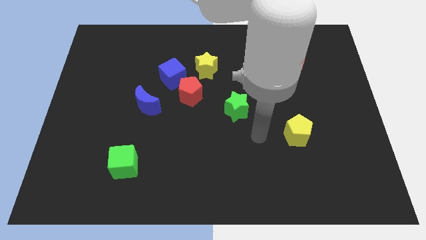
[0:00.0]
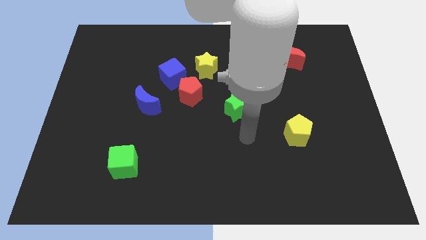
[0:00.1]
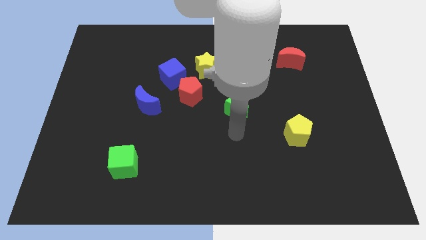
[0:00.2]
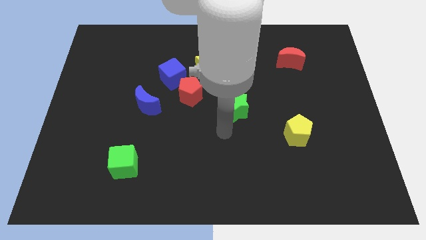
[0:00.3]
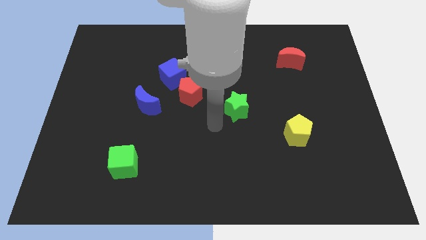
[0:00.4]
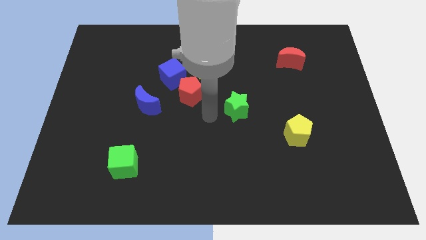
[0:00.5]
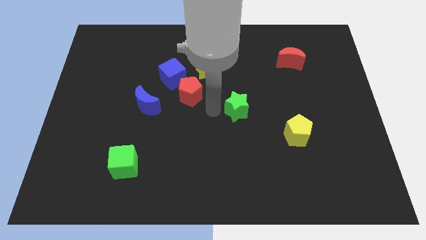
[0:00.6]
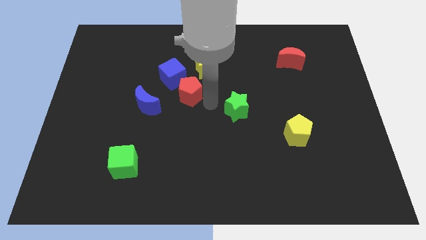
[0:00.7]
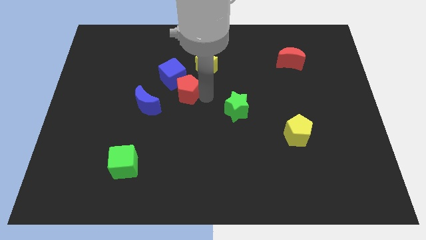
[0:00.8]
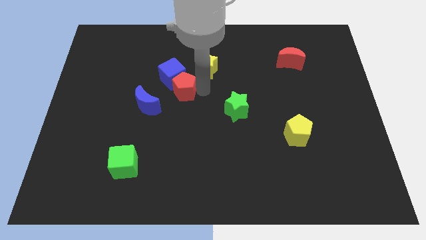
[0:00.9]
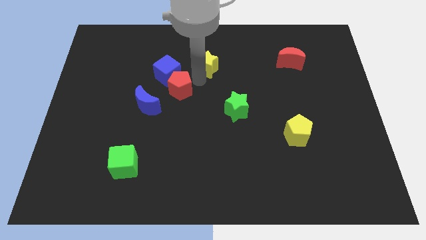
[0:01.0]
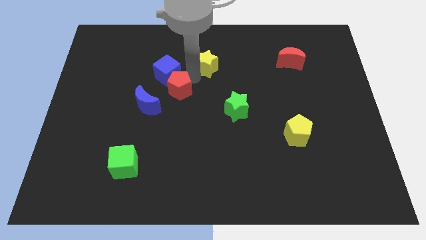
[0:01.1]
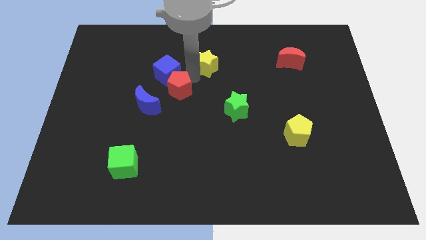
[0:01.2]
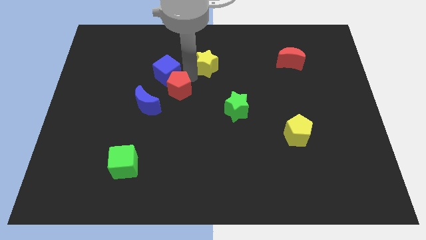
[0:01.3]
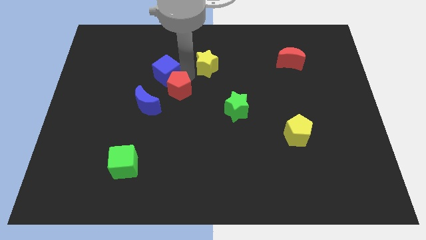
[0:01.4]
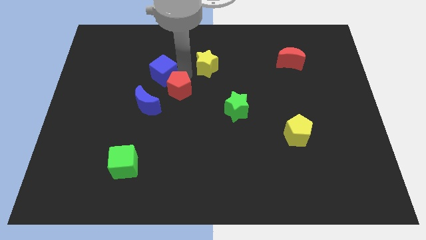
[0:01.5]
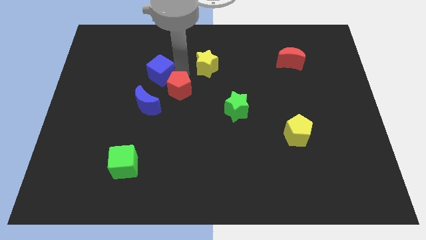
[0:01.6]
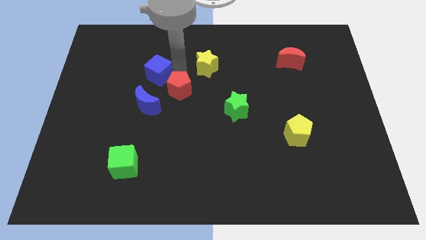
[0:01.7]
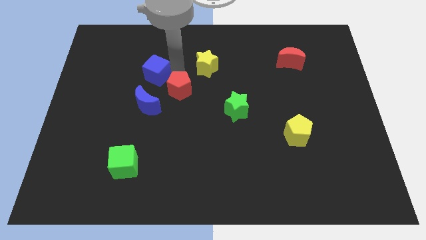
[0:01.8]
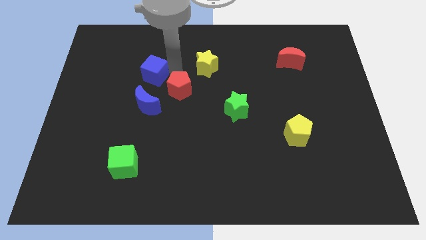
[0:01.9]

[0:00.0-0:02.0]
pull the blue cube apart from the red pentagon and yellow star

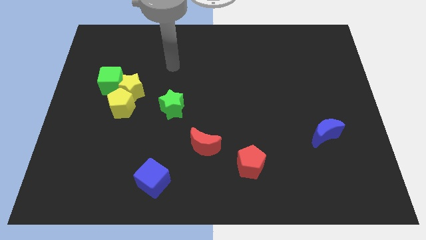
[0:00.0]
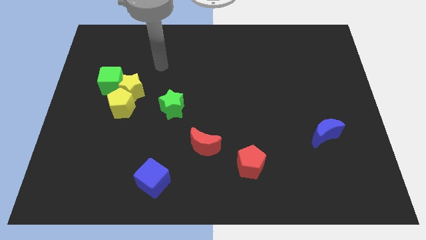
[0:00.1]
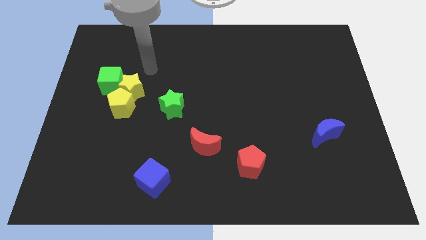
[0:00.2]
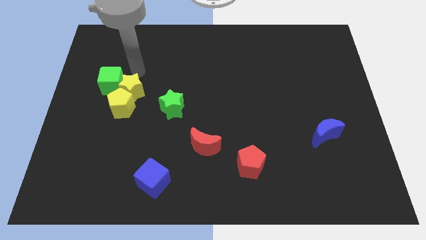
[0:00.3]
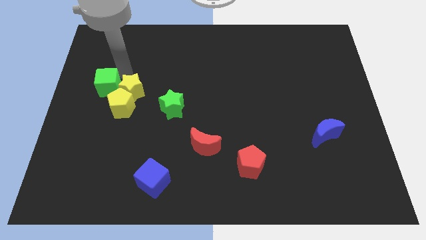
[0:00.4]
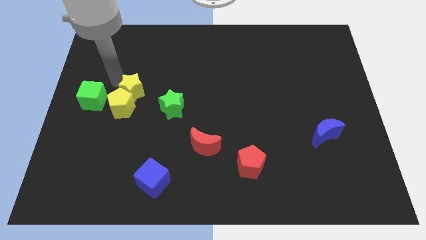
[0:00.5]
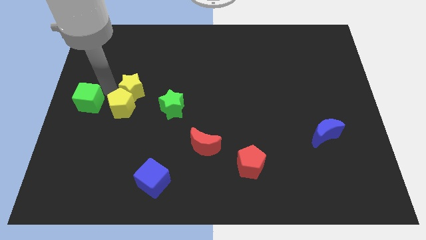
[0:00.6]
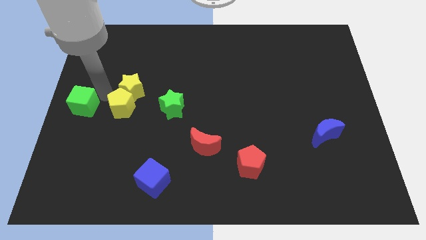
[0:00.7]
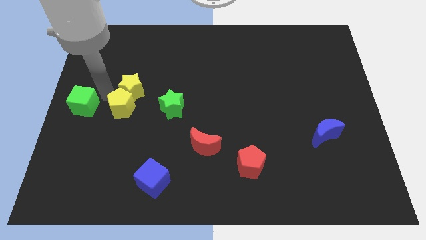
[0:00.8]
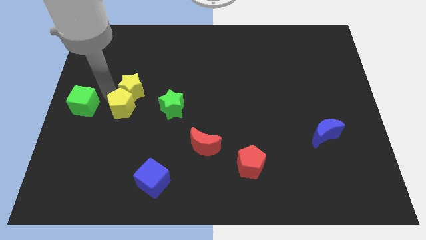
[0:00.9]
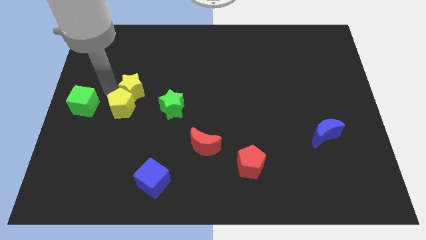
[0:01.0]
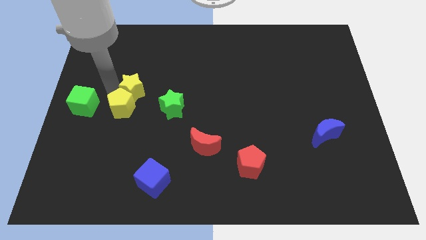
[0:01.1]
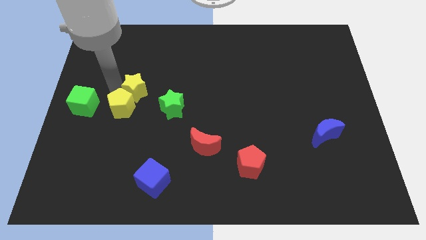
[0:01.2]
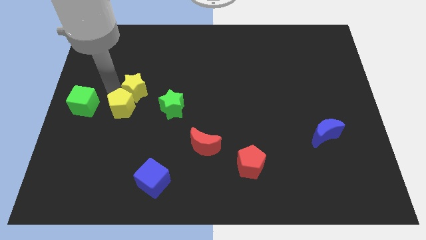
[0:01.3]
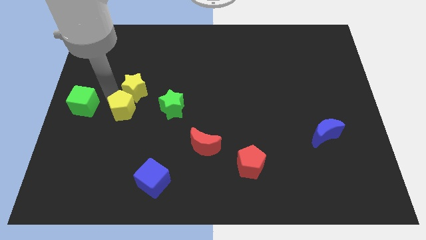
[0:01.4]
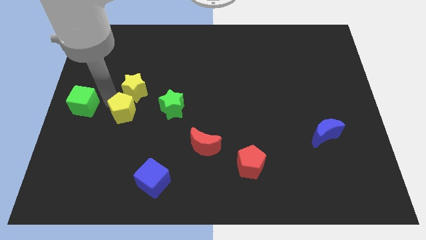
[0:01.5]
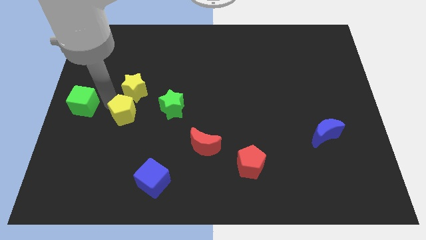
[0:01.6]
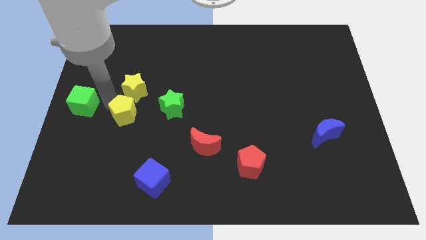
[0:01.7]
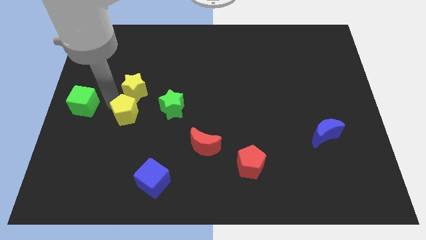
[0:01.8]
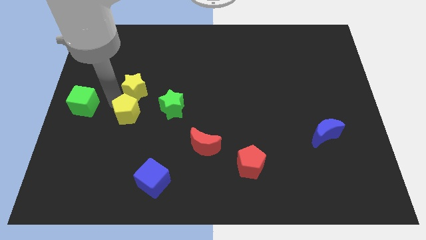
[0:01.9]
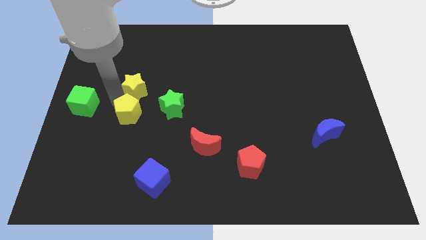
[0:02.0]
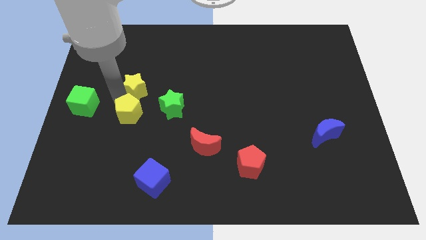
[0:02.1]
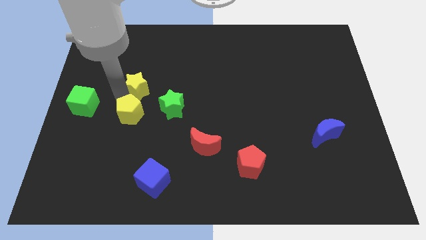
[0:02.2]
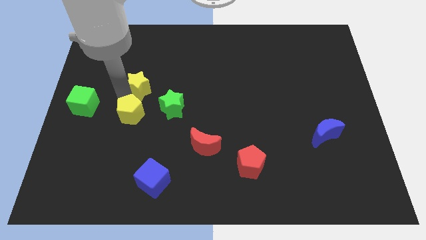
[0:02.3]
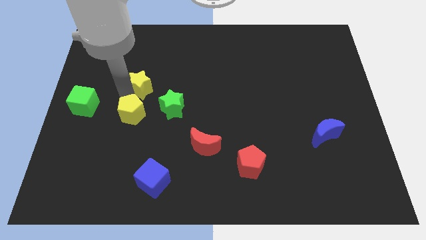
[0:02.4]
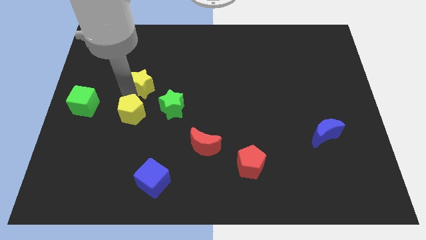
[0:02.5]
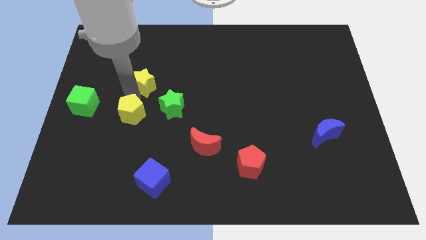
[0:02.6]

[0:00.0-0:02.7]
separate the yellow star from the yellow pentagon and green cube

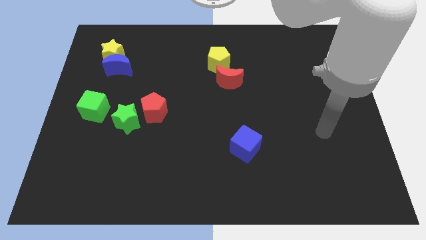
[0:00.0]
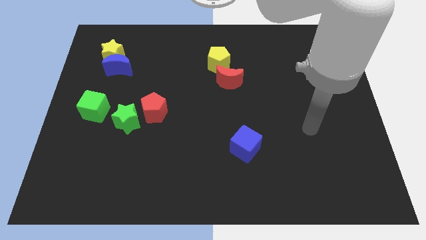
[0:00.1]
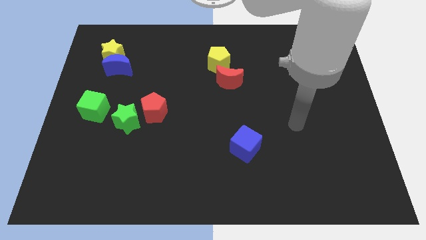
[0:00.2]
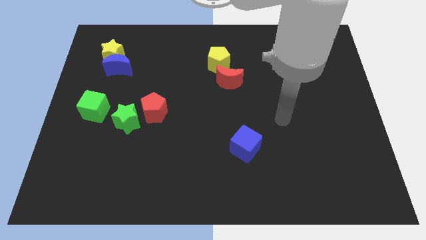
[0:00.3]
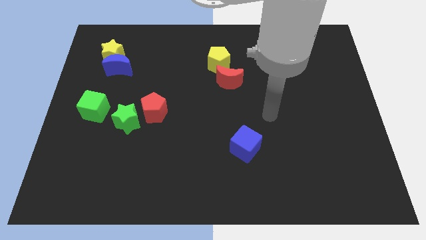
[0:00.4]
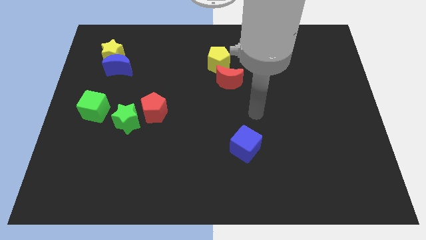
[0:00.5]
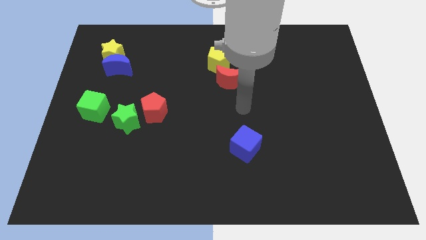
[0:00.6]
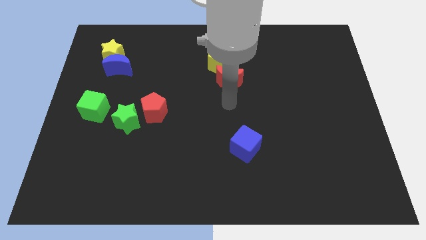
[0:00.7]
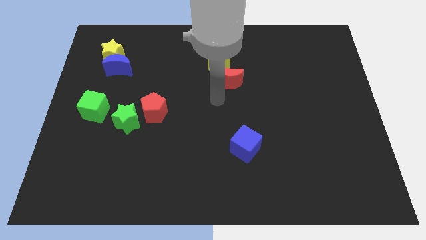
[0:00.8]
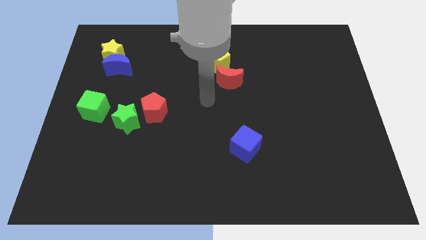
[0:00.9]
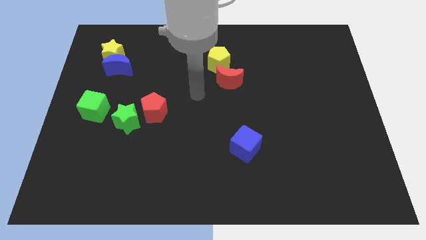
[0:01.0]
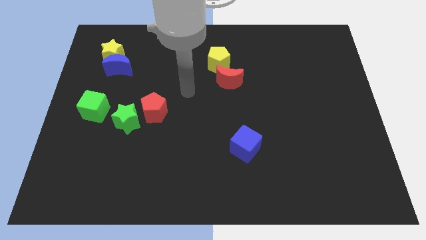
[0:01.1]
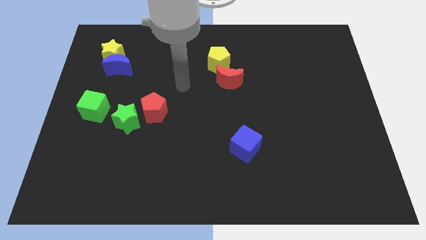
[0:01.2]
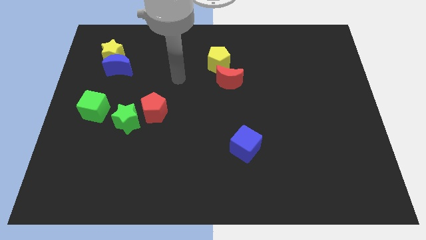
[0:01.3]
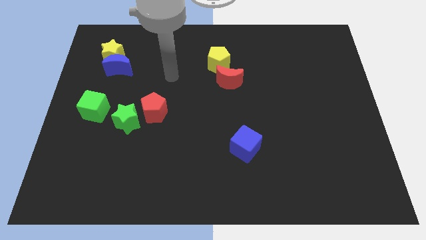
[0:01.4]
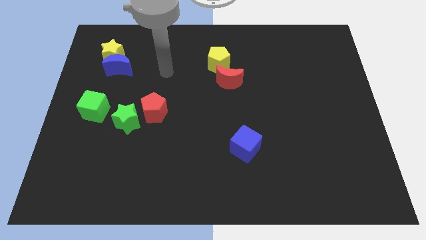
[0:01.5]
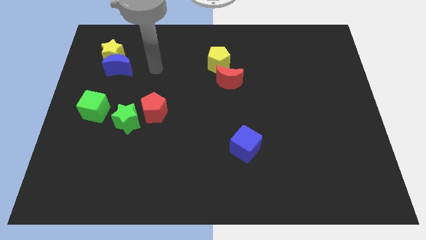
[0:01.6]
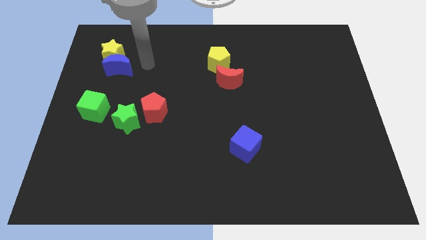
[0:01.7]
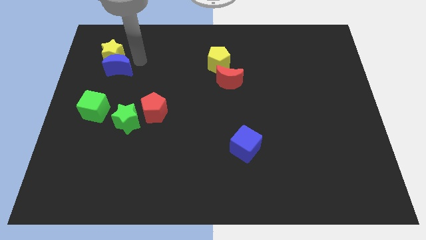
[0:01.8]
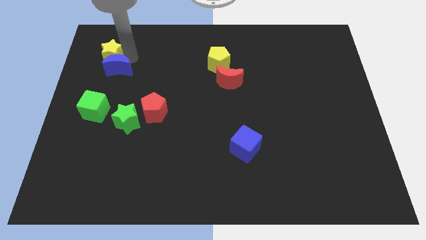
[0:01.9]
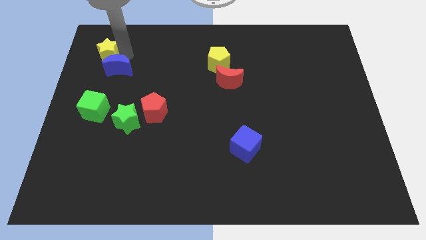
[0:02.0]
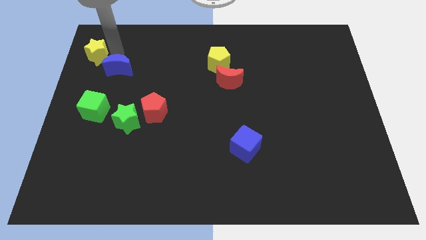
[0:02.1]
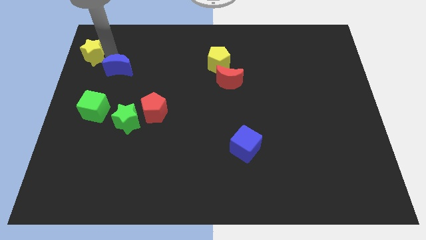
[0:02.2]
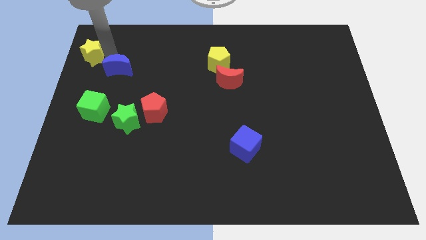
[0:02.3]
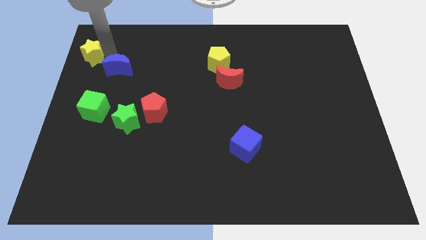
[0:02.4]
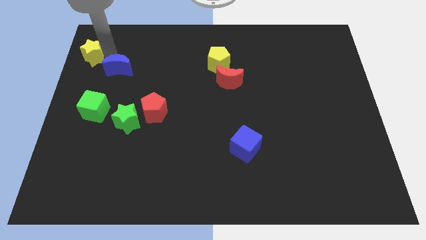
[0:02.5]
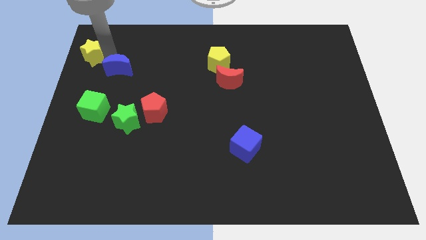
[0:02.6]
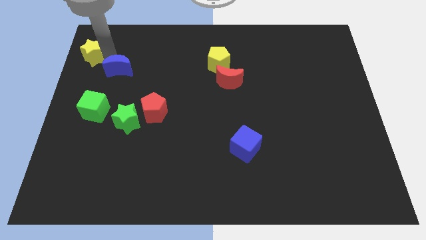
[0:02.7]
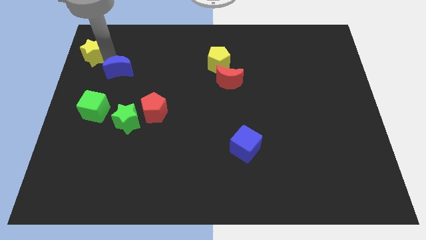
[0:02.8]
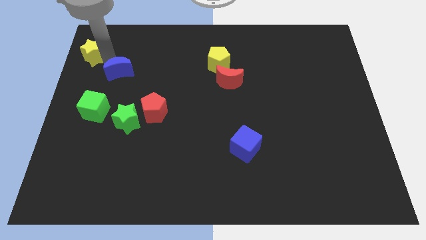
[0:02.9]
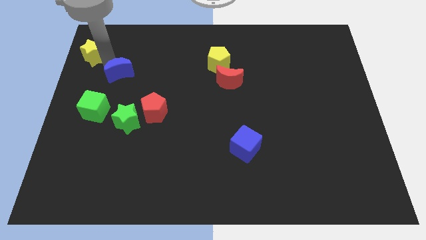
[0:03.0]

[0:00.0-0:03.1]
separate the blue moon from the yellow star

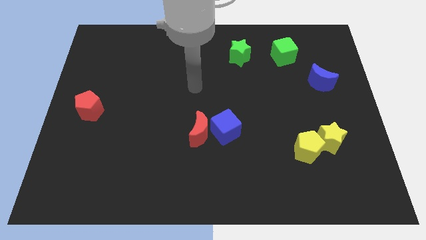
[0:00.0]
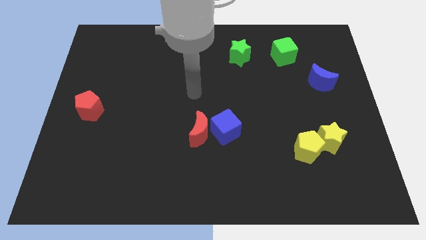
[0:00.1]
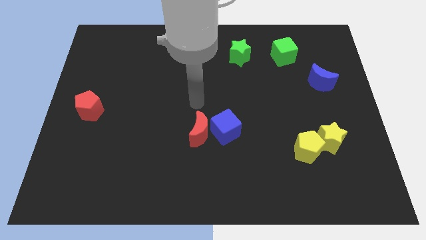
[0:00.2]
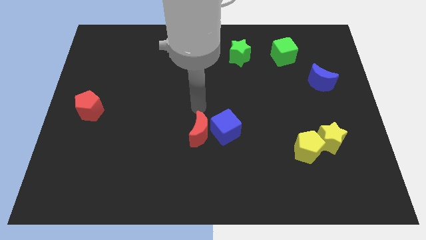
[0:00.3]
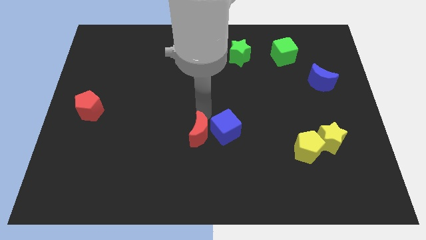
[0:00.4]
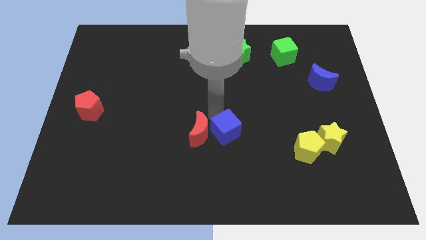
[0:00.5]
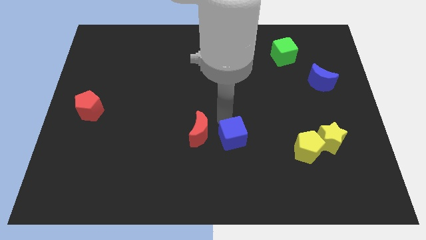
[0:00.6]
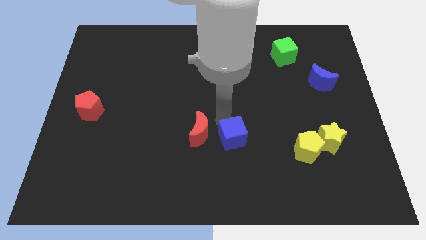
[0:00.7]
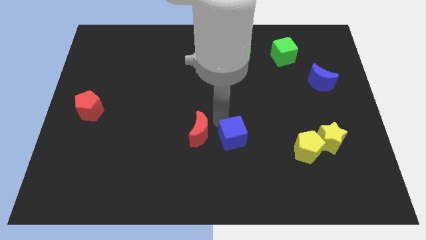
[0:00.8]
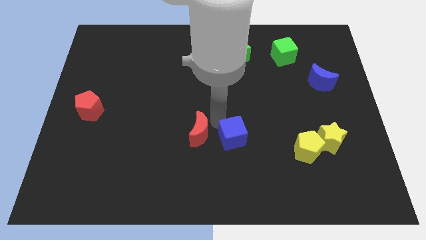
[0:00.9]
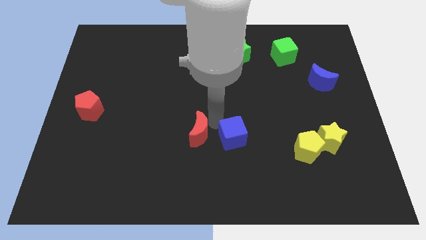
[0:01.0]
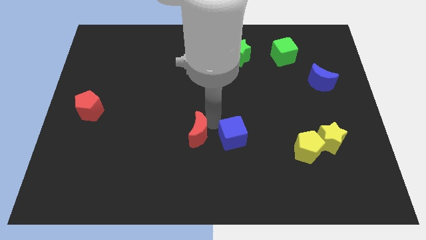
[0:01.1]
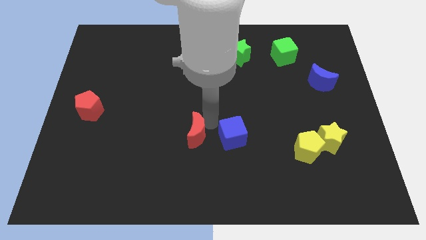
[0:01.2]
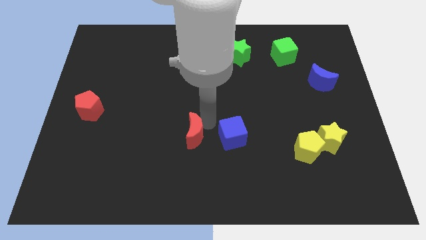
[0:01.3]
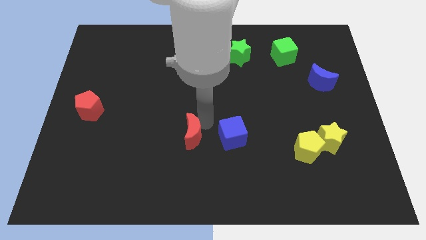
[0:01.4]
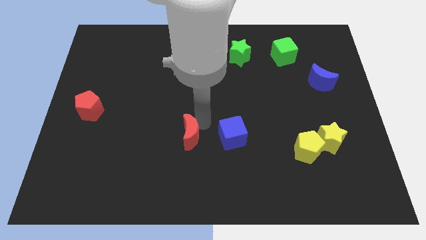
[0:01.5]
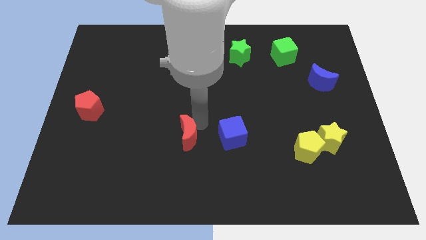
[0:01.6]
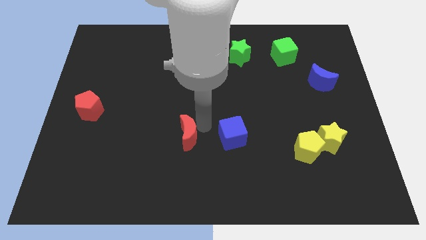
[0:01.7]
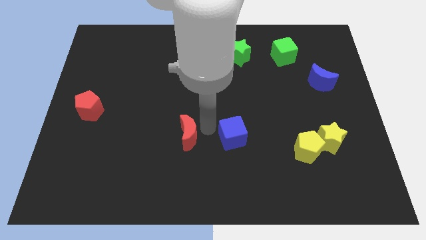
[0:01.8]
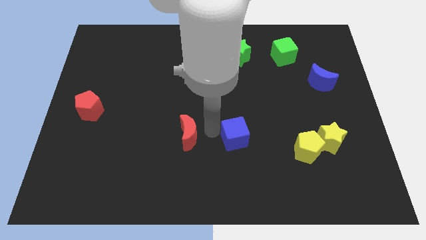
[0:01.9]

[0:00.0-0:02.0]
move the red moon away from the blue cube
